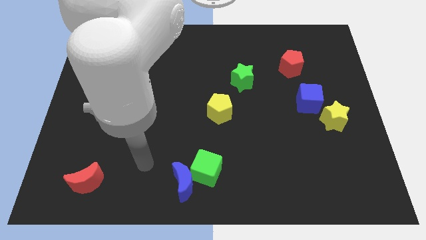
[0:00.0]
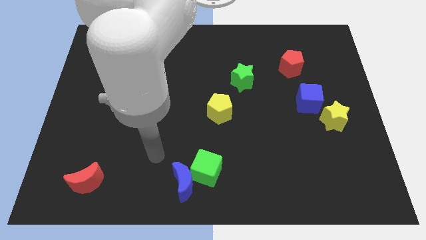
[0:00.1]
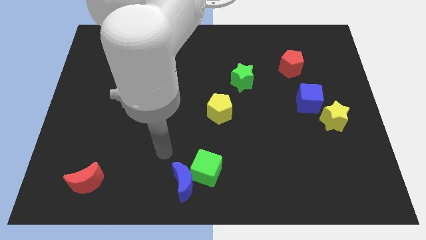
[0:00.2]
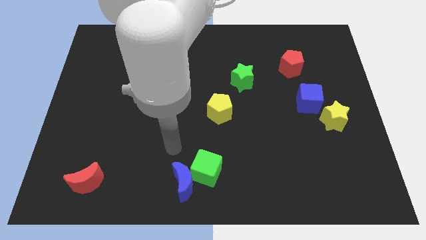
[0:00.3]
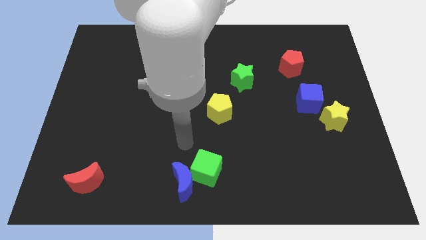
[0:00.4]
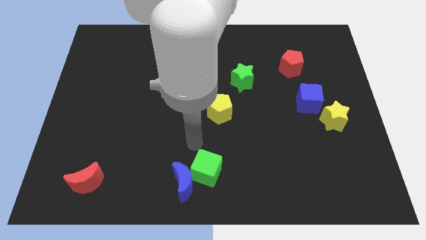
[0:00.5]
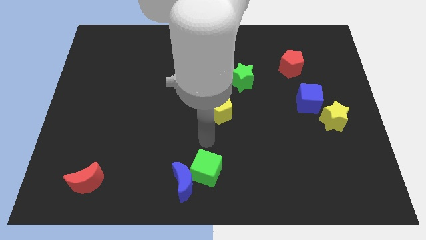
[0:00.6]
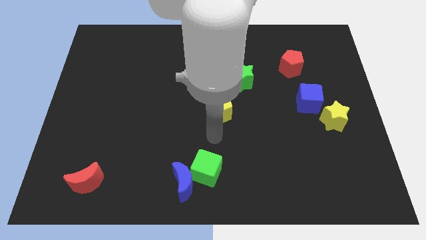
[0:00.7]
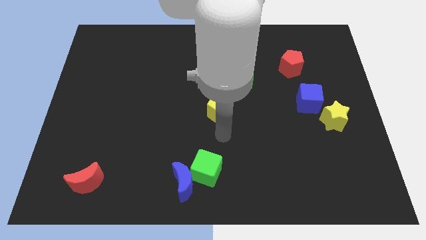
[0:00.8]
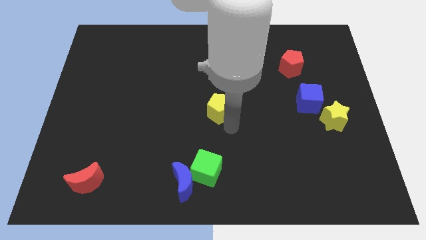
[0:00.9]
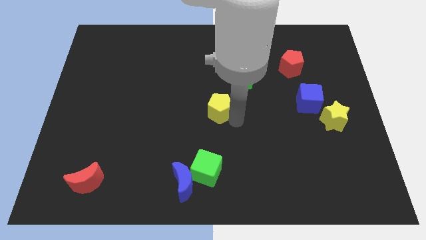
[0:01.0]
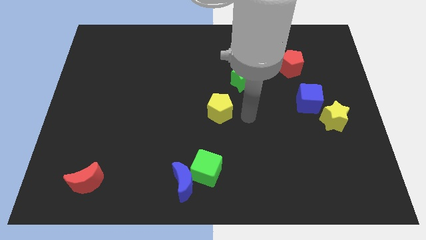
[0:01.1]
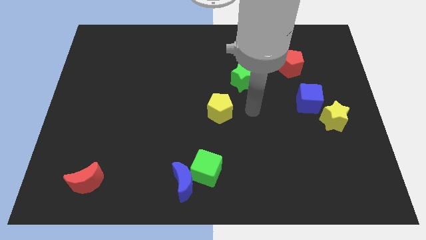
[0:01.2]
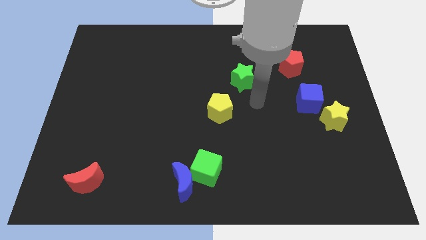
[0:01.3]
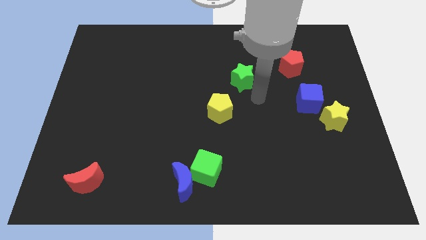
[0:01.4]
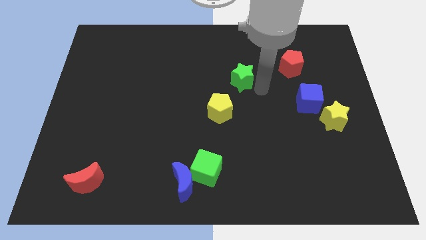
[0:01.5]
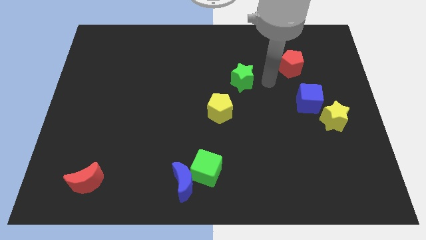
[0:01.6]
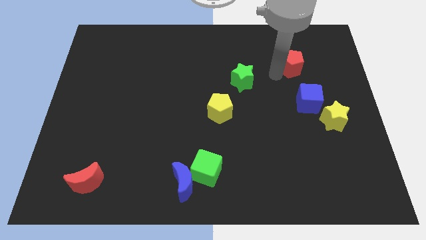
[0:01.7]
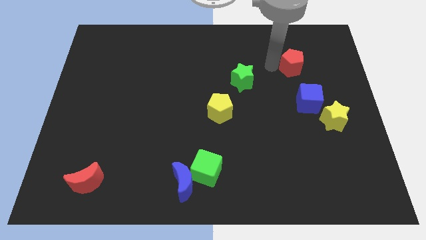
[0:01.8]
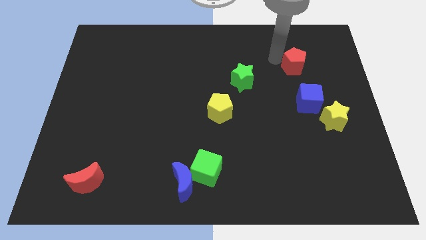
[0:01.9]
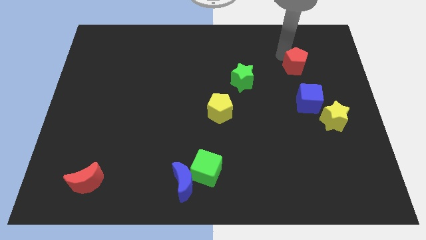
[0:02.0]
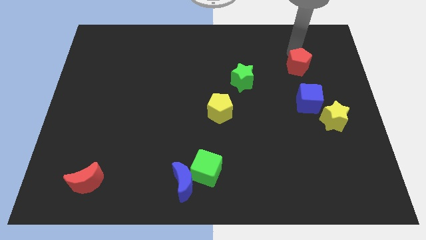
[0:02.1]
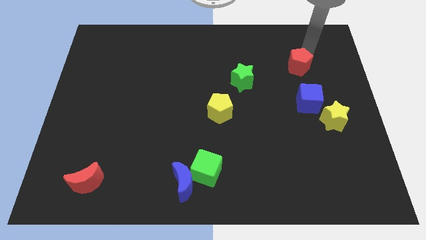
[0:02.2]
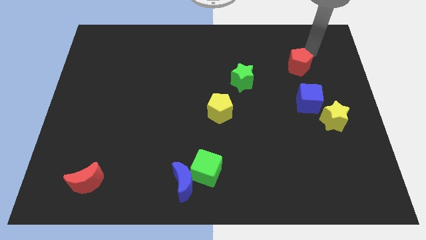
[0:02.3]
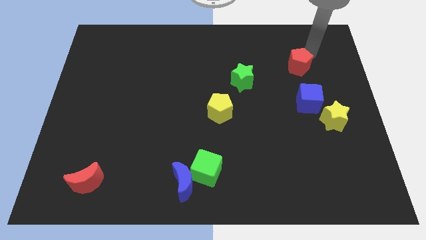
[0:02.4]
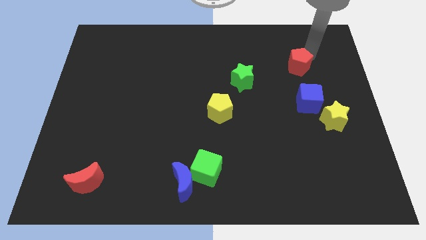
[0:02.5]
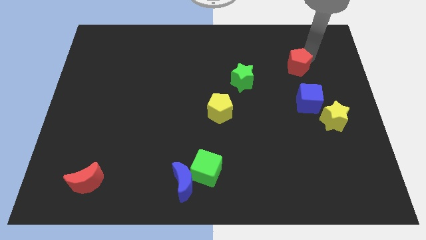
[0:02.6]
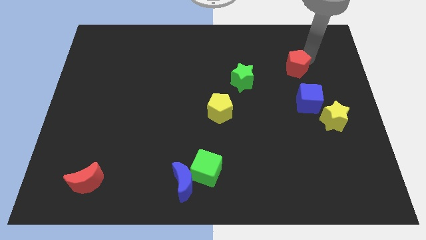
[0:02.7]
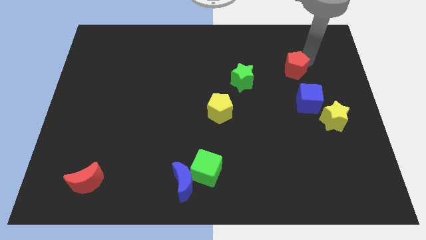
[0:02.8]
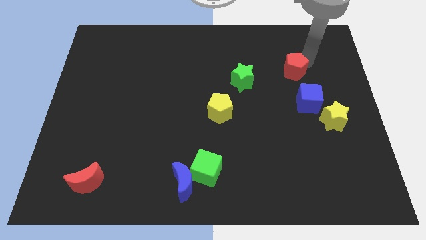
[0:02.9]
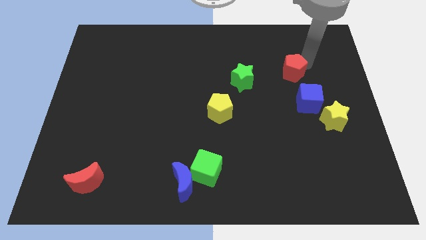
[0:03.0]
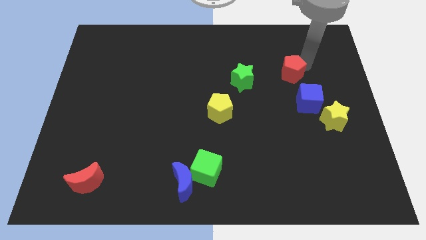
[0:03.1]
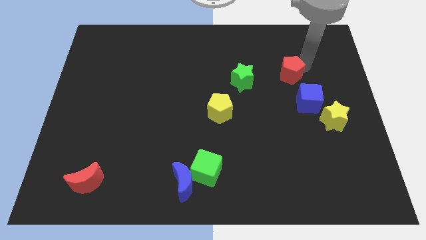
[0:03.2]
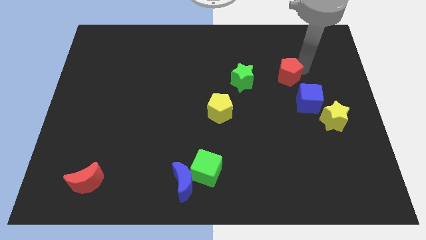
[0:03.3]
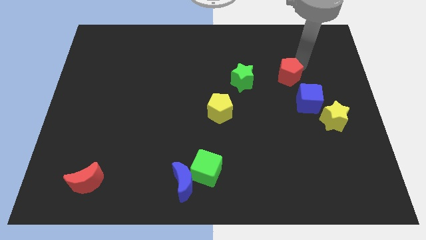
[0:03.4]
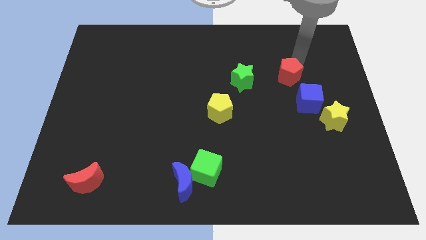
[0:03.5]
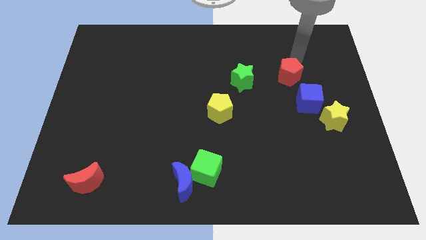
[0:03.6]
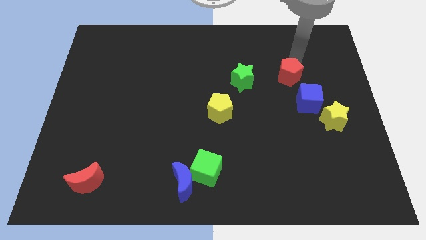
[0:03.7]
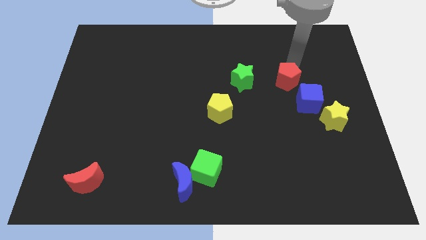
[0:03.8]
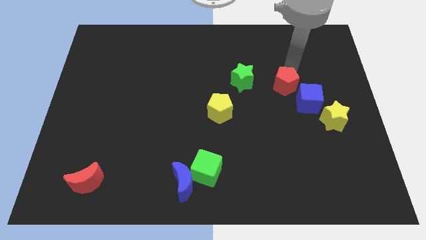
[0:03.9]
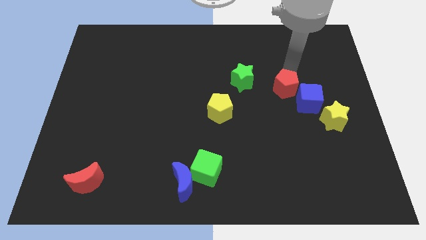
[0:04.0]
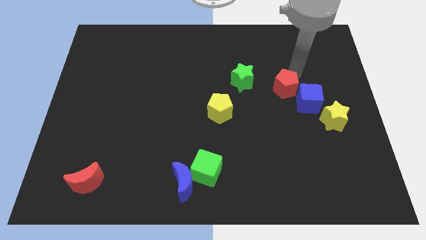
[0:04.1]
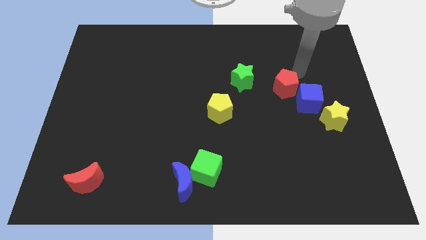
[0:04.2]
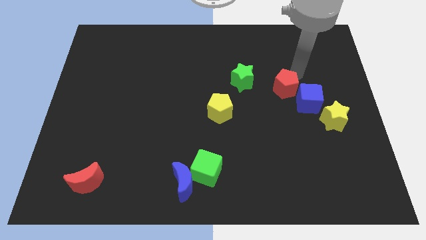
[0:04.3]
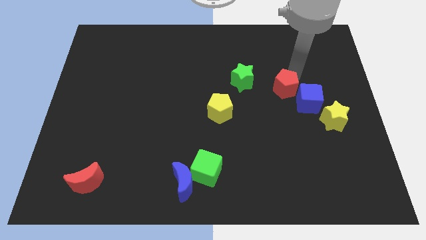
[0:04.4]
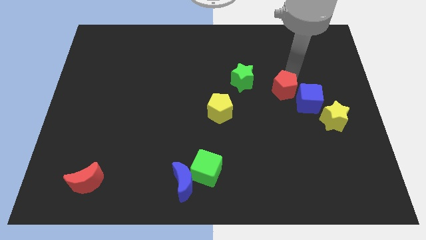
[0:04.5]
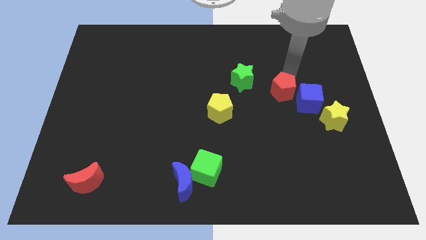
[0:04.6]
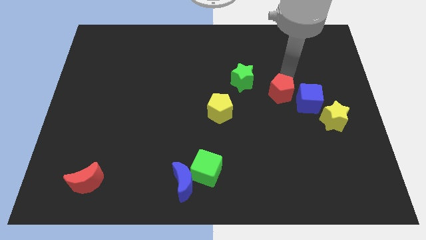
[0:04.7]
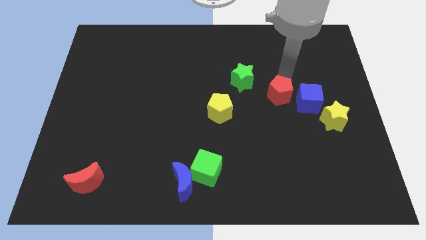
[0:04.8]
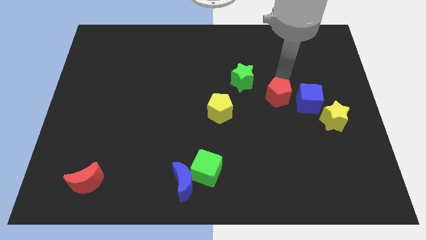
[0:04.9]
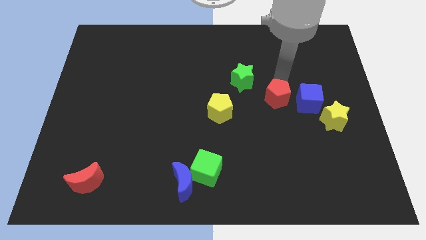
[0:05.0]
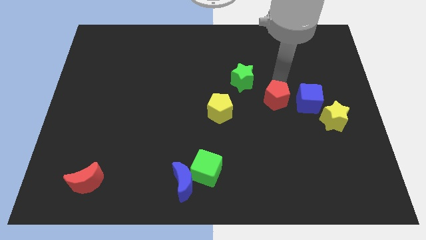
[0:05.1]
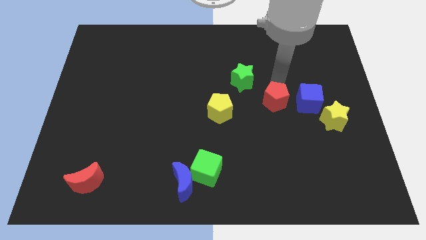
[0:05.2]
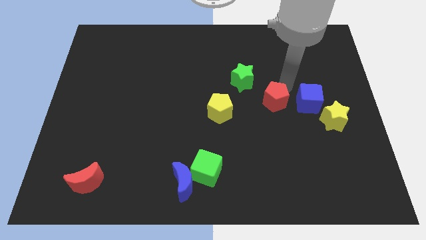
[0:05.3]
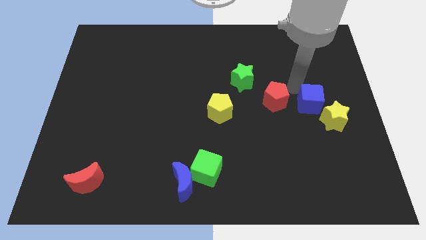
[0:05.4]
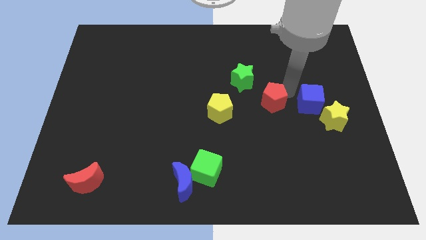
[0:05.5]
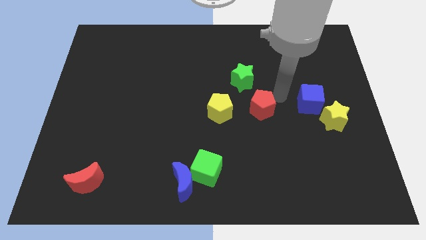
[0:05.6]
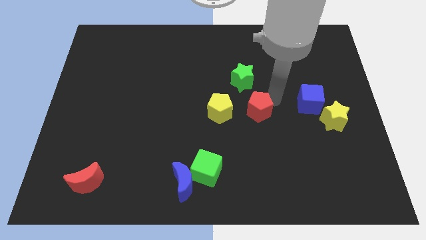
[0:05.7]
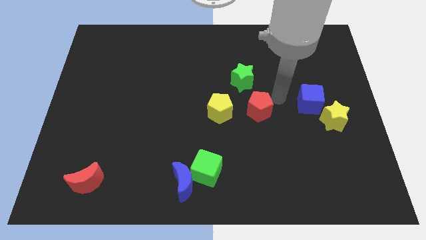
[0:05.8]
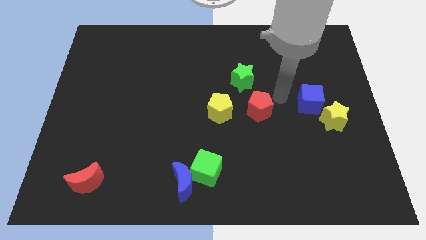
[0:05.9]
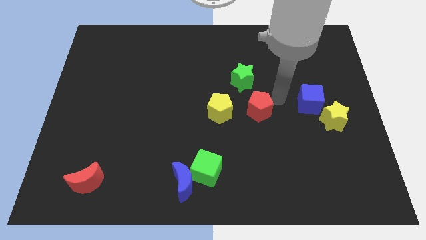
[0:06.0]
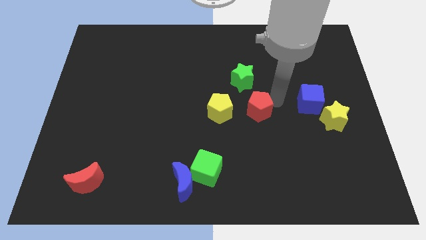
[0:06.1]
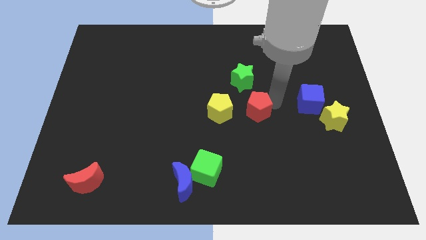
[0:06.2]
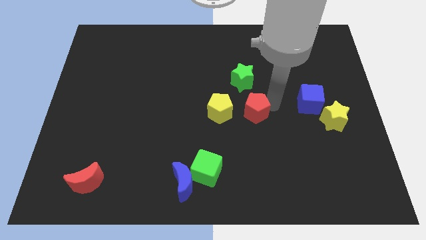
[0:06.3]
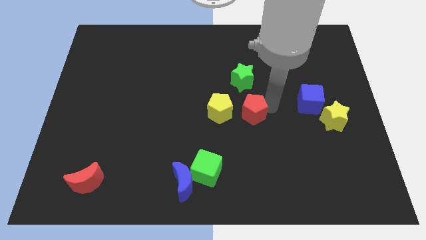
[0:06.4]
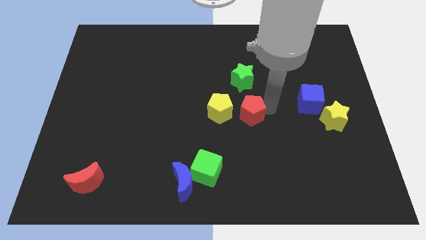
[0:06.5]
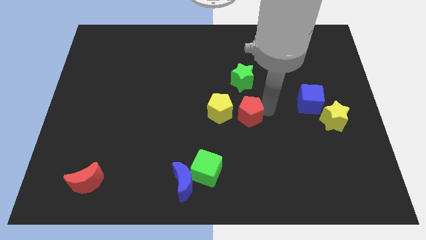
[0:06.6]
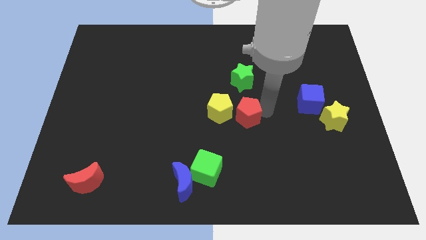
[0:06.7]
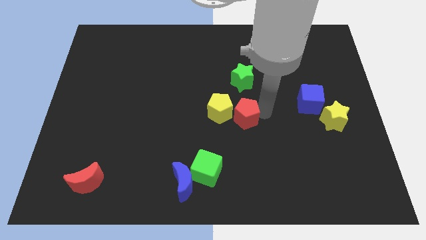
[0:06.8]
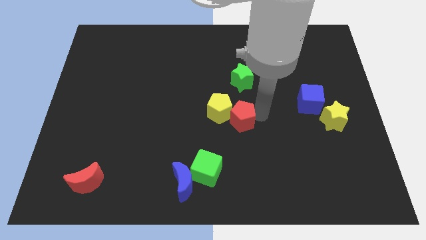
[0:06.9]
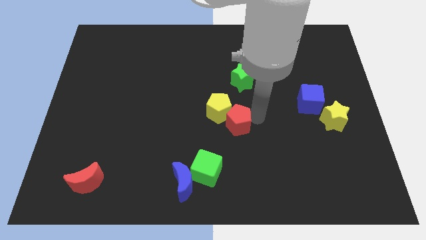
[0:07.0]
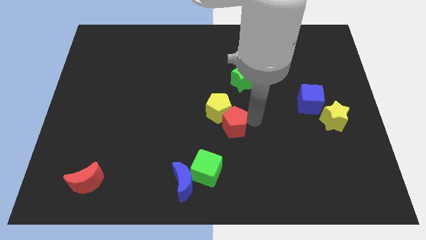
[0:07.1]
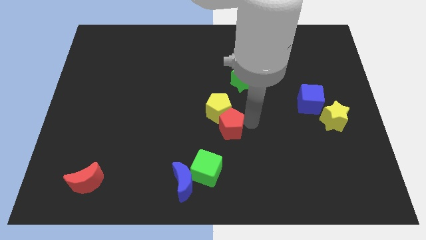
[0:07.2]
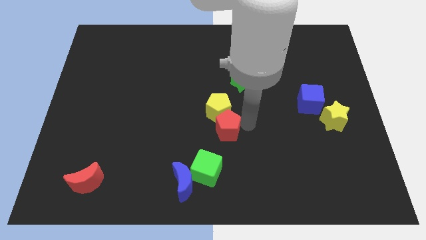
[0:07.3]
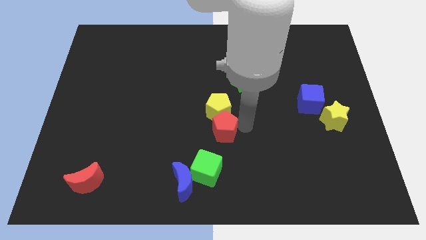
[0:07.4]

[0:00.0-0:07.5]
put the red pentagon to the bottom left of the yellow pentagon
